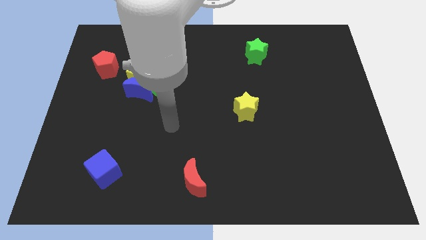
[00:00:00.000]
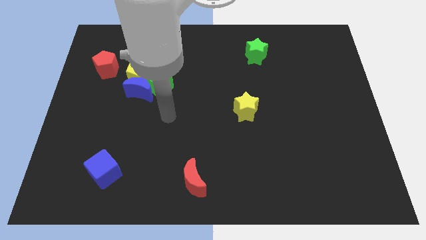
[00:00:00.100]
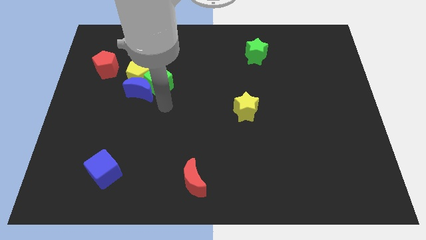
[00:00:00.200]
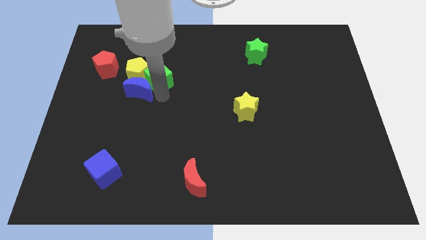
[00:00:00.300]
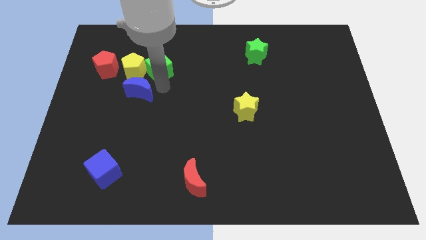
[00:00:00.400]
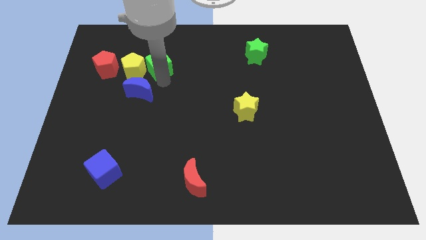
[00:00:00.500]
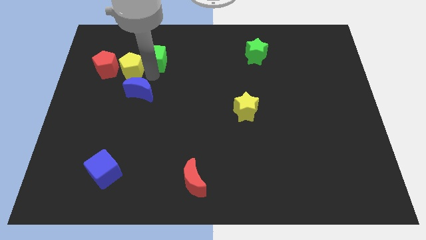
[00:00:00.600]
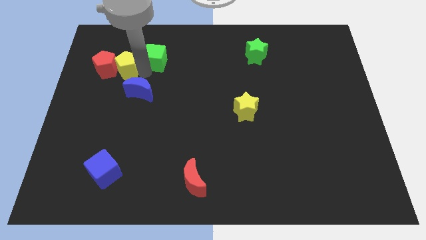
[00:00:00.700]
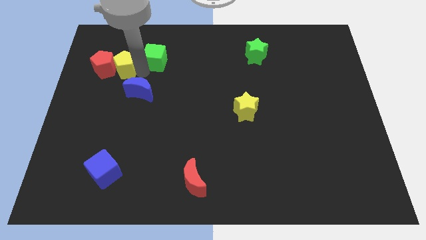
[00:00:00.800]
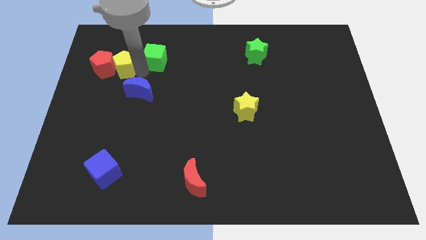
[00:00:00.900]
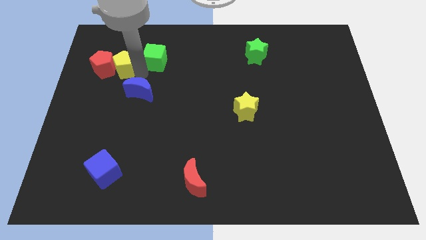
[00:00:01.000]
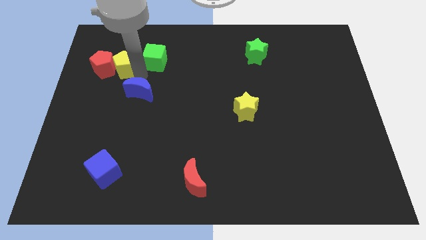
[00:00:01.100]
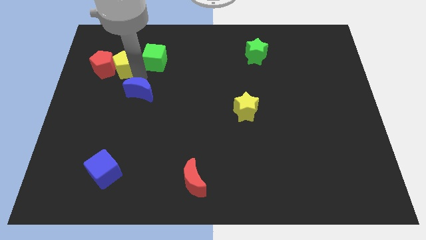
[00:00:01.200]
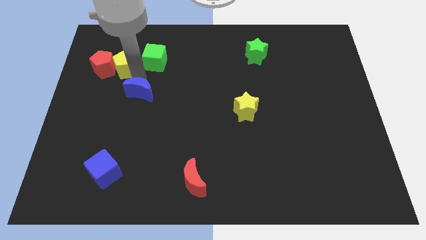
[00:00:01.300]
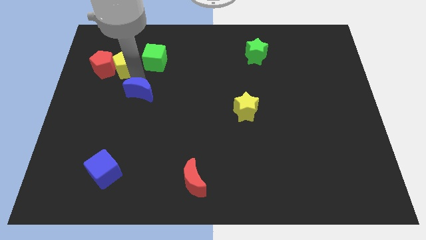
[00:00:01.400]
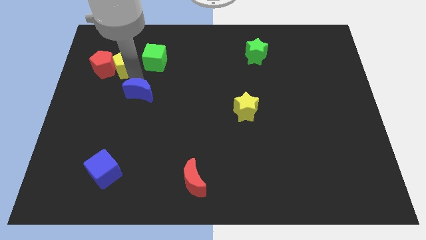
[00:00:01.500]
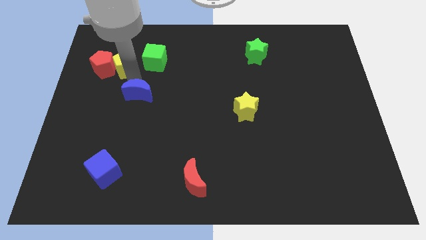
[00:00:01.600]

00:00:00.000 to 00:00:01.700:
separate the blue moon from the yellow pentagon and green cube

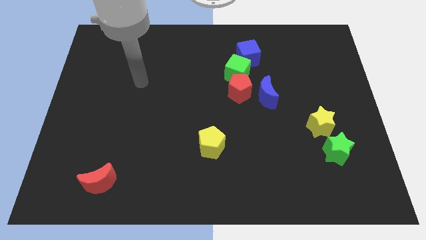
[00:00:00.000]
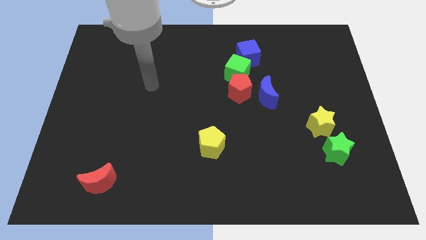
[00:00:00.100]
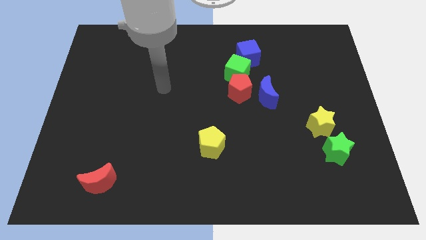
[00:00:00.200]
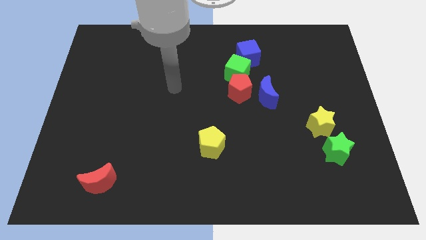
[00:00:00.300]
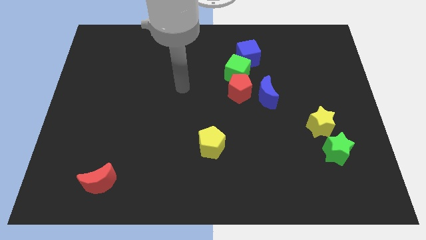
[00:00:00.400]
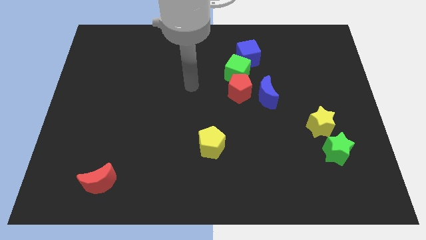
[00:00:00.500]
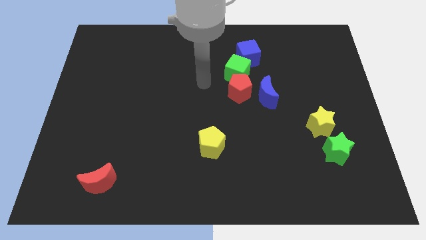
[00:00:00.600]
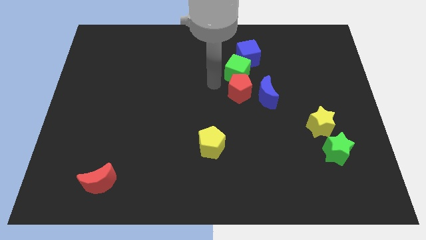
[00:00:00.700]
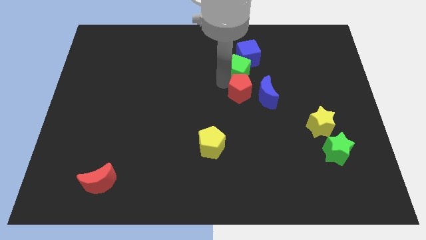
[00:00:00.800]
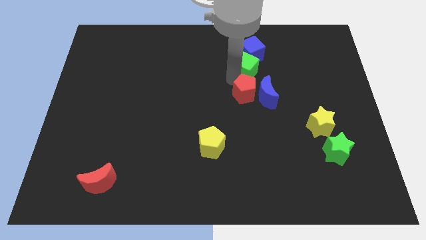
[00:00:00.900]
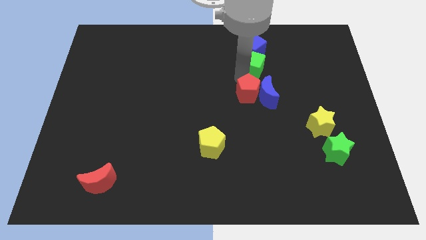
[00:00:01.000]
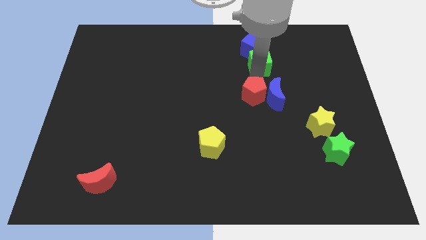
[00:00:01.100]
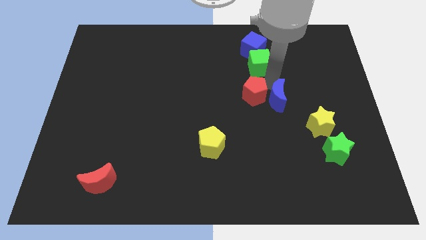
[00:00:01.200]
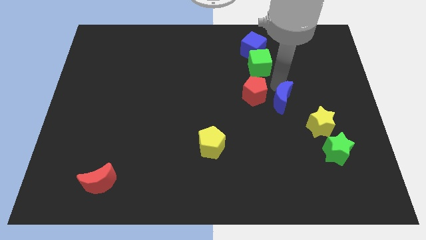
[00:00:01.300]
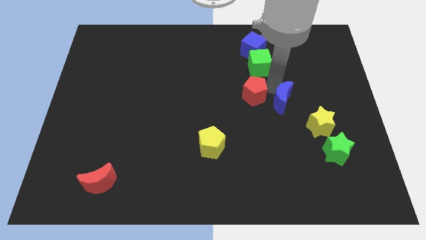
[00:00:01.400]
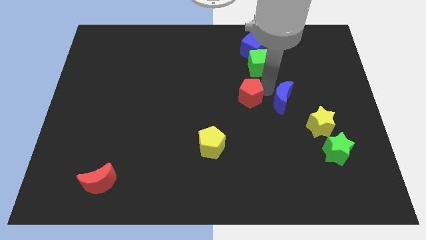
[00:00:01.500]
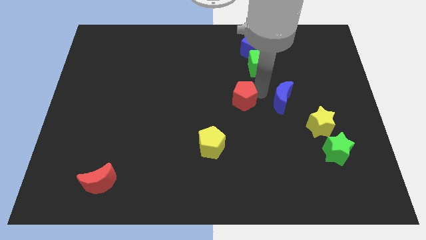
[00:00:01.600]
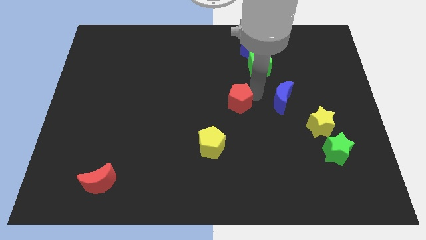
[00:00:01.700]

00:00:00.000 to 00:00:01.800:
pull the red pentagon apart from the green cube and blue moon

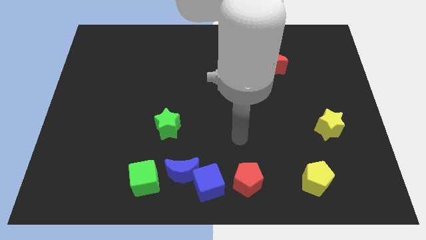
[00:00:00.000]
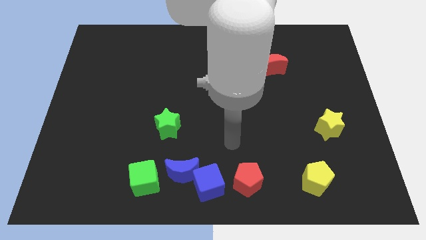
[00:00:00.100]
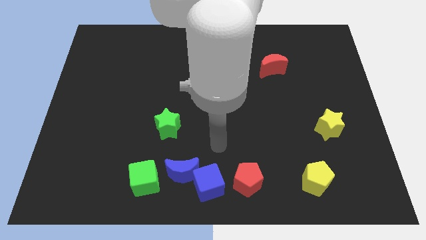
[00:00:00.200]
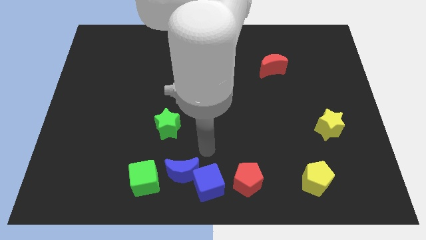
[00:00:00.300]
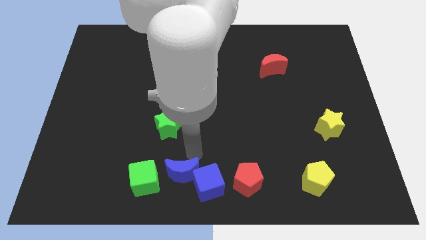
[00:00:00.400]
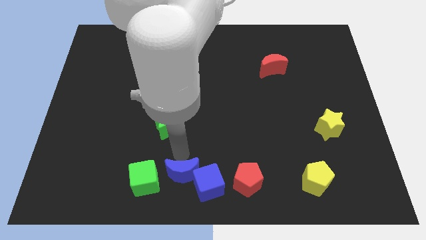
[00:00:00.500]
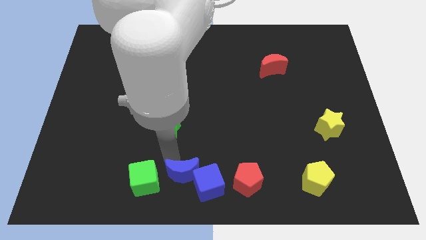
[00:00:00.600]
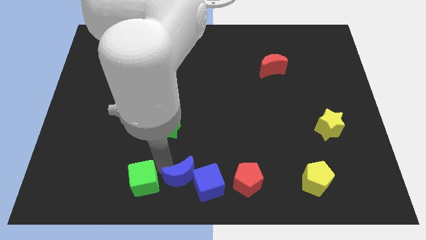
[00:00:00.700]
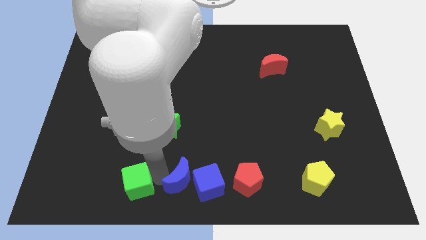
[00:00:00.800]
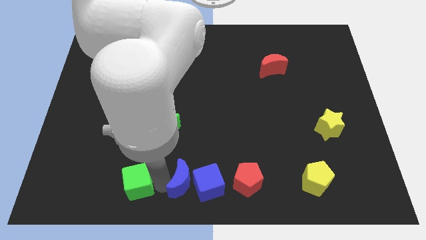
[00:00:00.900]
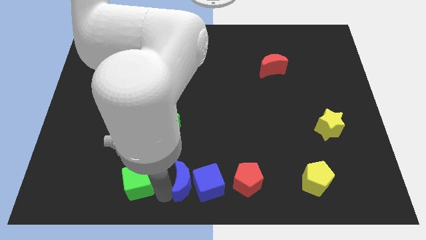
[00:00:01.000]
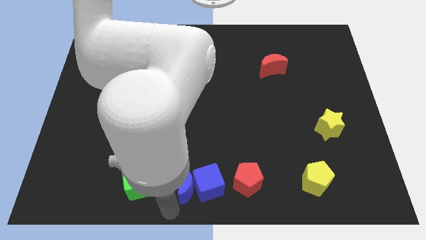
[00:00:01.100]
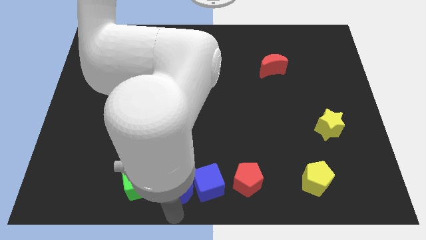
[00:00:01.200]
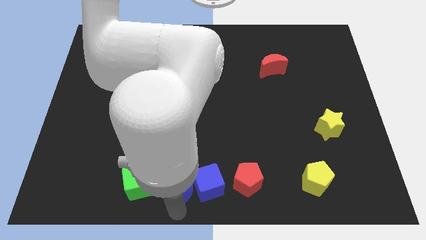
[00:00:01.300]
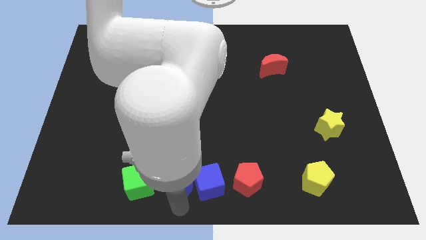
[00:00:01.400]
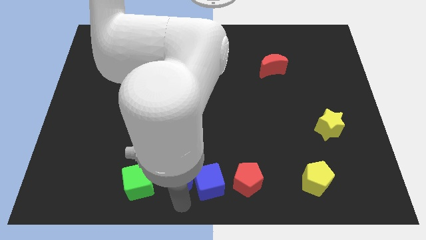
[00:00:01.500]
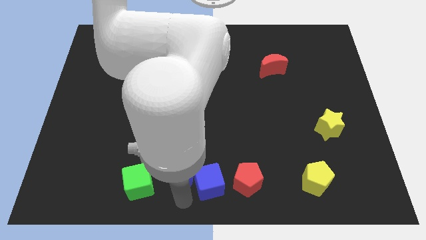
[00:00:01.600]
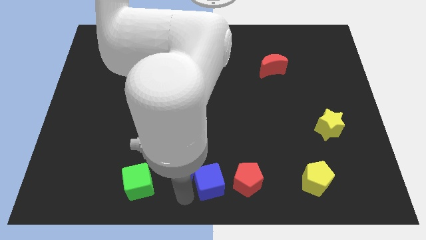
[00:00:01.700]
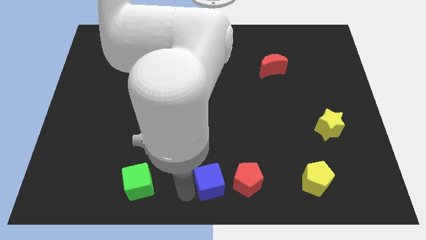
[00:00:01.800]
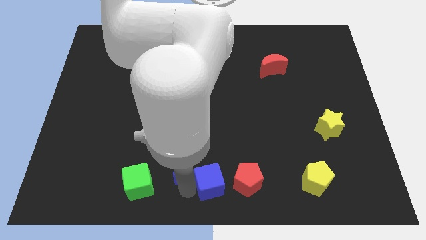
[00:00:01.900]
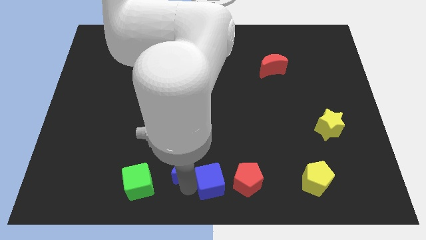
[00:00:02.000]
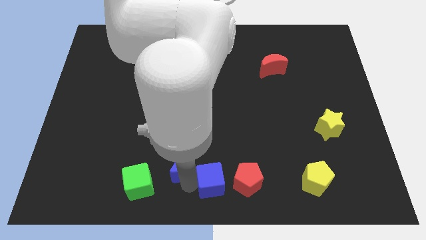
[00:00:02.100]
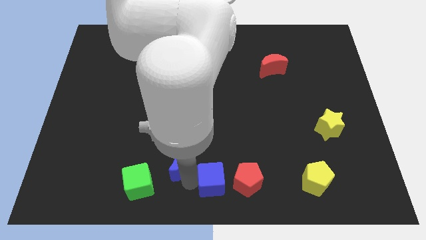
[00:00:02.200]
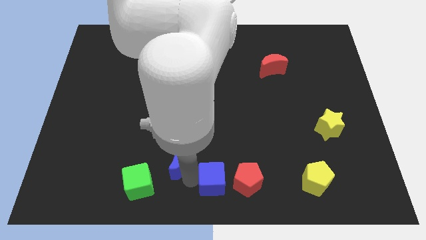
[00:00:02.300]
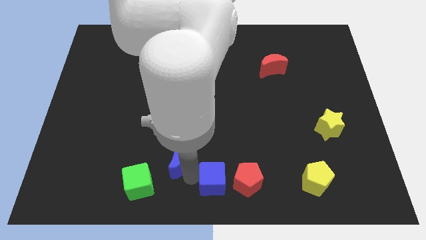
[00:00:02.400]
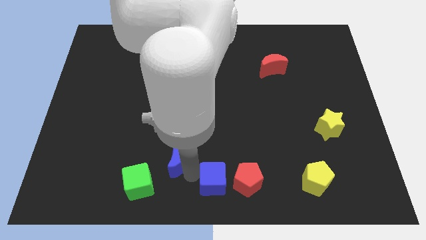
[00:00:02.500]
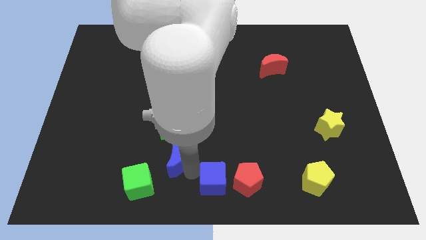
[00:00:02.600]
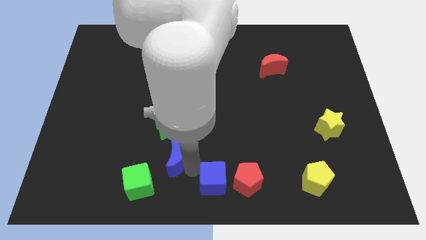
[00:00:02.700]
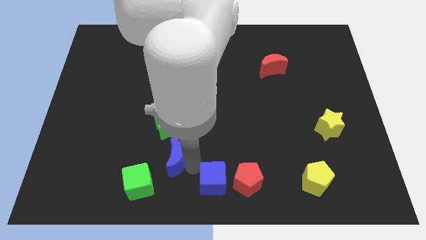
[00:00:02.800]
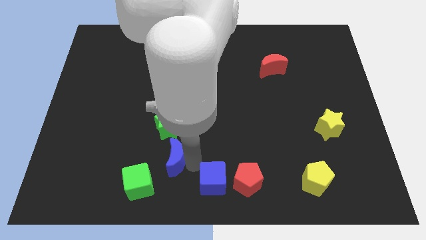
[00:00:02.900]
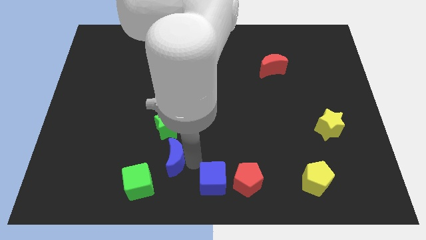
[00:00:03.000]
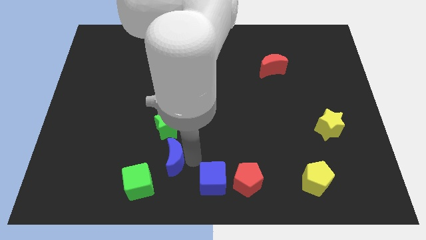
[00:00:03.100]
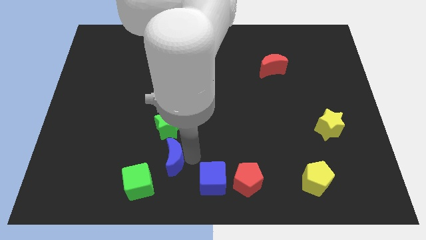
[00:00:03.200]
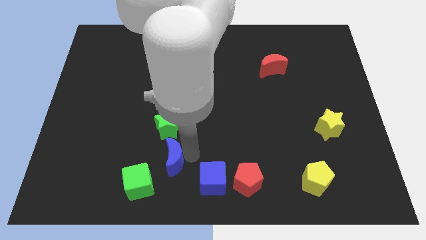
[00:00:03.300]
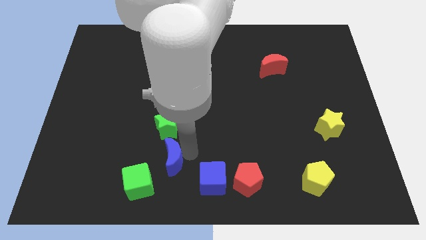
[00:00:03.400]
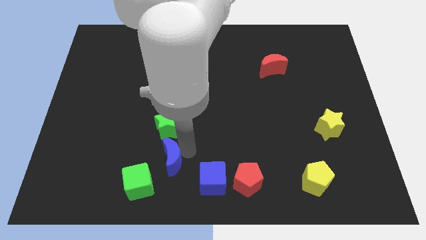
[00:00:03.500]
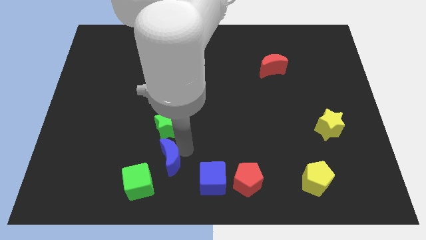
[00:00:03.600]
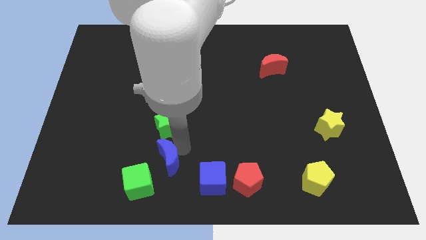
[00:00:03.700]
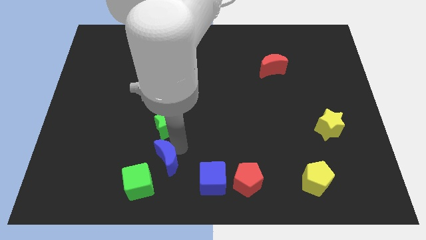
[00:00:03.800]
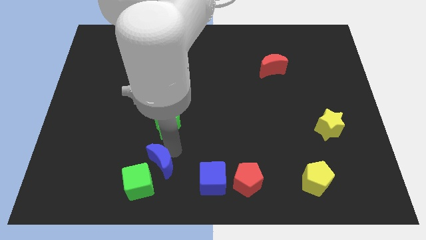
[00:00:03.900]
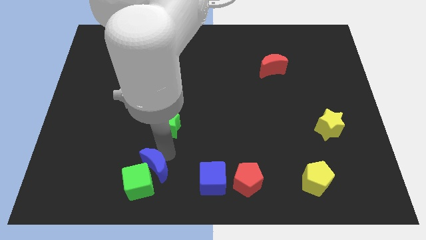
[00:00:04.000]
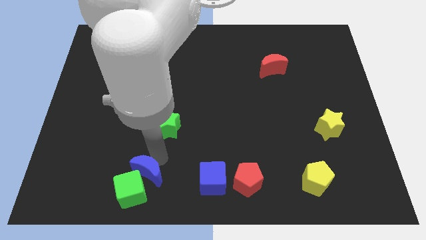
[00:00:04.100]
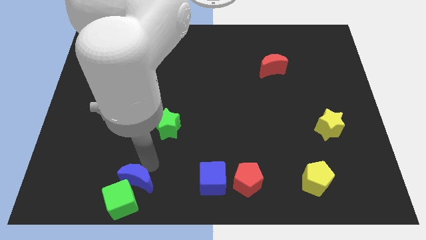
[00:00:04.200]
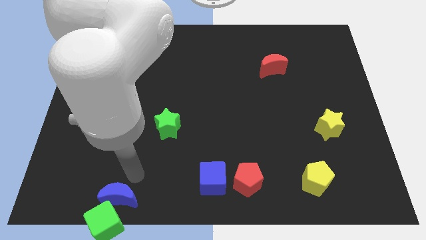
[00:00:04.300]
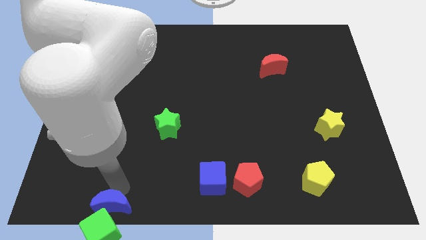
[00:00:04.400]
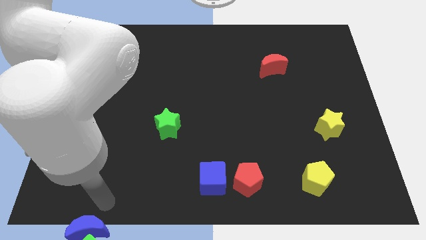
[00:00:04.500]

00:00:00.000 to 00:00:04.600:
move the blue moon away from the blue cube and green cube

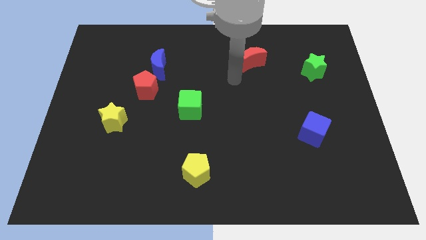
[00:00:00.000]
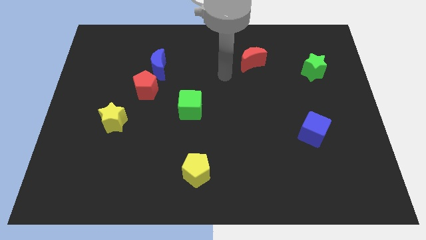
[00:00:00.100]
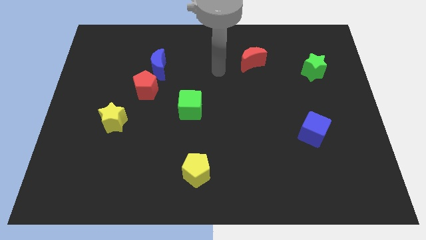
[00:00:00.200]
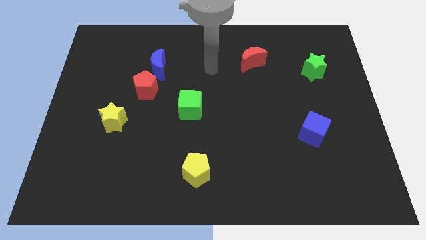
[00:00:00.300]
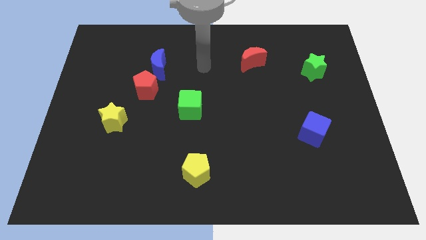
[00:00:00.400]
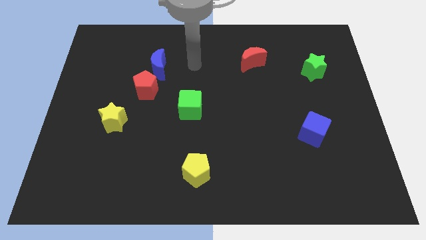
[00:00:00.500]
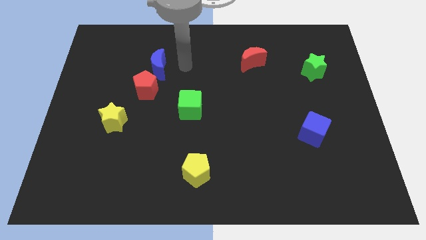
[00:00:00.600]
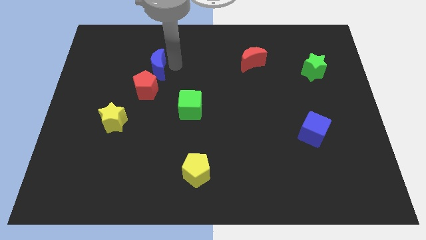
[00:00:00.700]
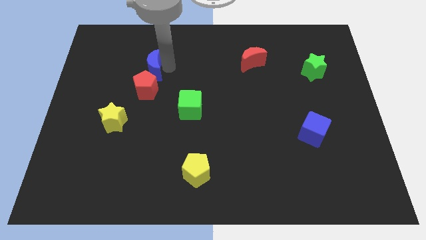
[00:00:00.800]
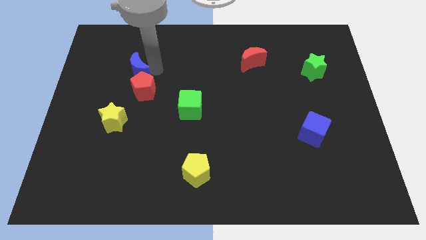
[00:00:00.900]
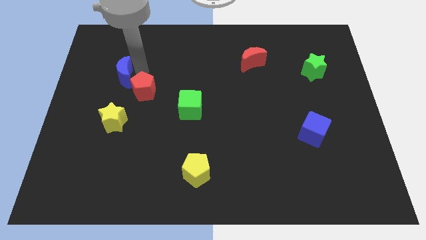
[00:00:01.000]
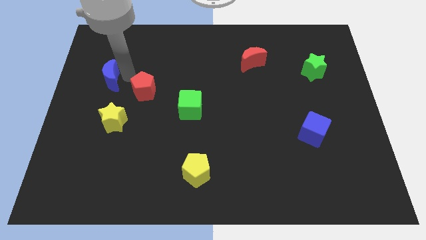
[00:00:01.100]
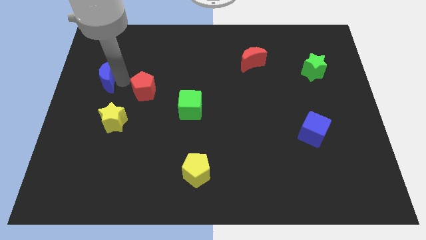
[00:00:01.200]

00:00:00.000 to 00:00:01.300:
move the red pentagon away from the blue moon
